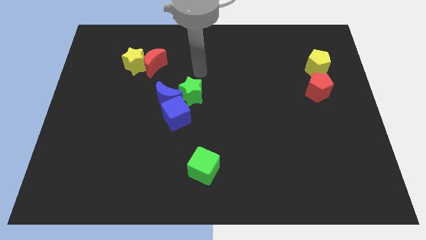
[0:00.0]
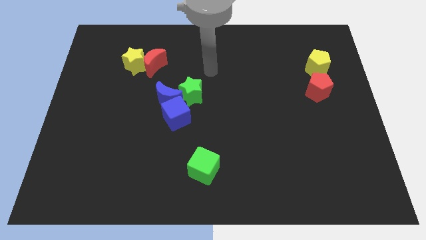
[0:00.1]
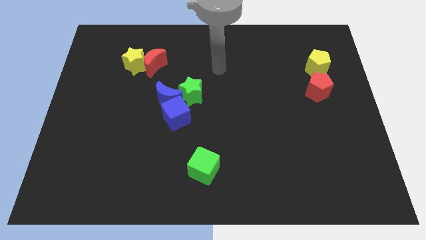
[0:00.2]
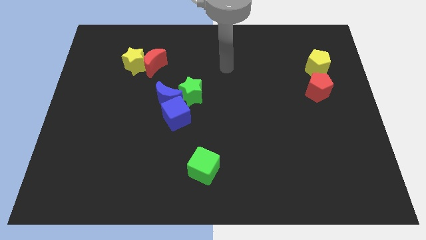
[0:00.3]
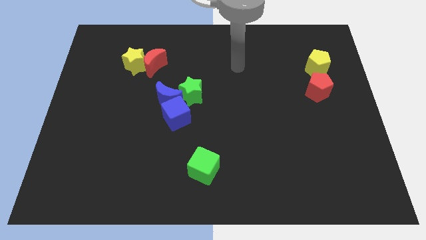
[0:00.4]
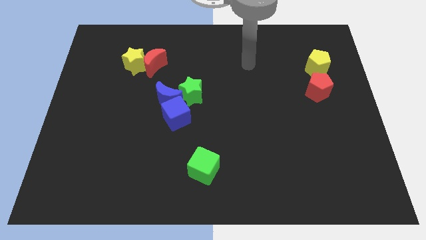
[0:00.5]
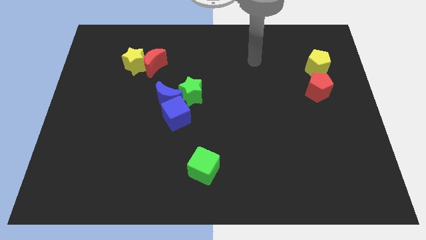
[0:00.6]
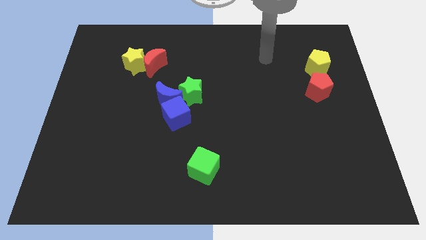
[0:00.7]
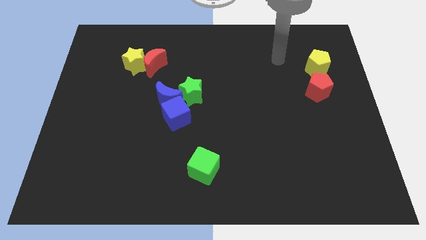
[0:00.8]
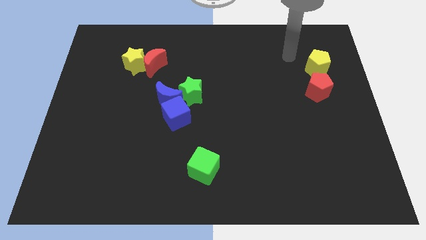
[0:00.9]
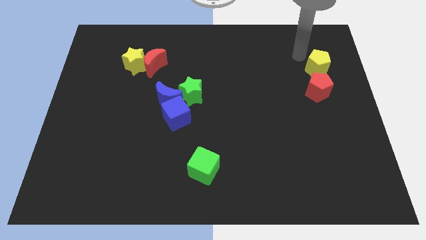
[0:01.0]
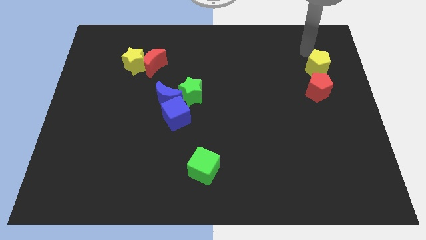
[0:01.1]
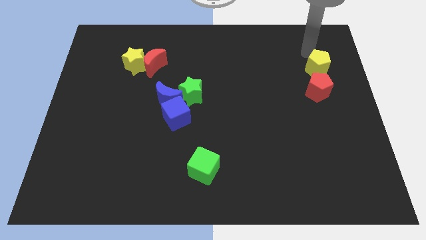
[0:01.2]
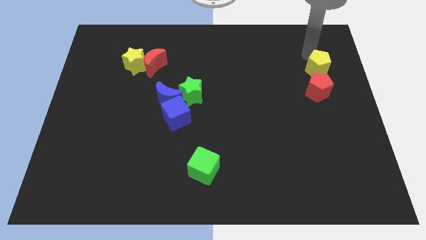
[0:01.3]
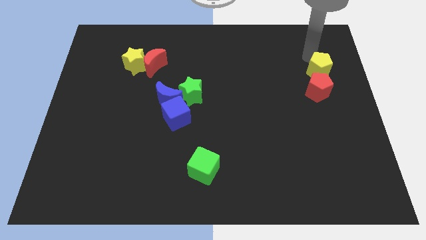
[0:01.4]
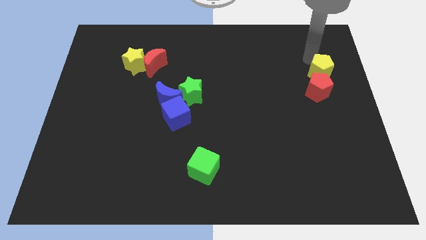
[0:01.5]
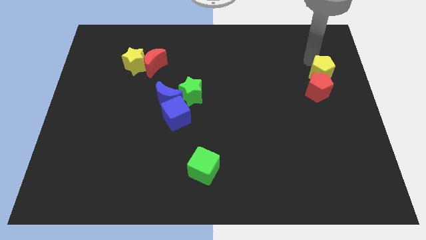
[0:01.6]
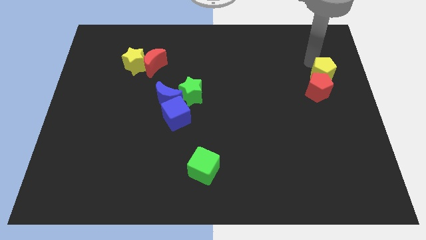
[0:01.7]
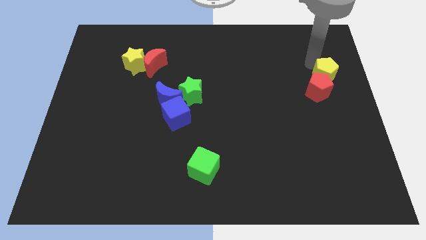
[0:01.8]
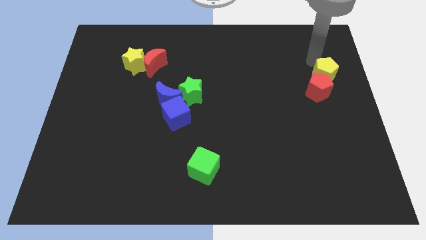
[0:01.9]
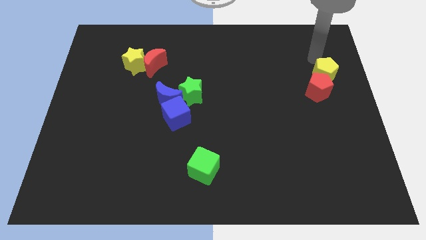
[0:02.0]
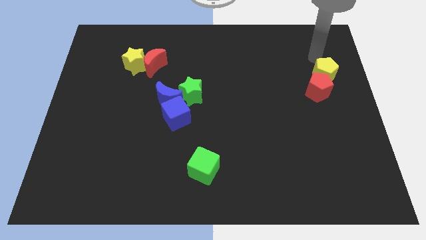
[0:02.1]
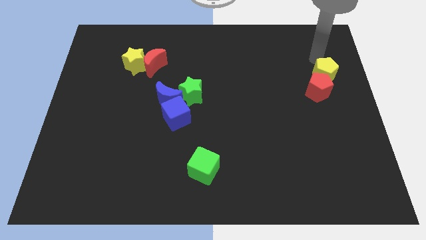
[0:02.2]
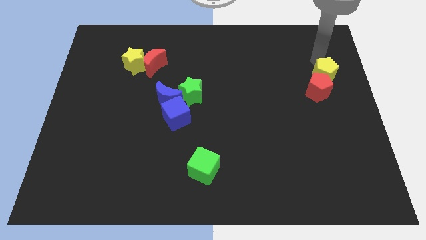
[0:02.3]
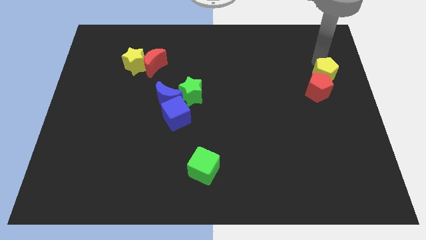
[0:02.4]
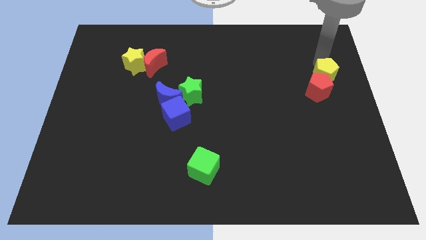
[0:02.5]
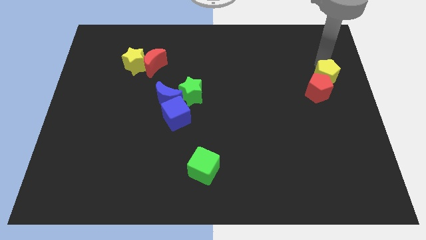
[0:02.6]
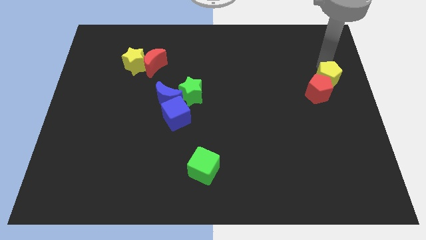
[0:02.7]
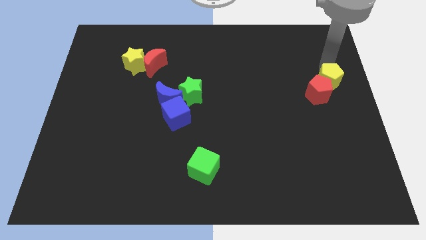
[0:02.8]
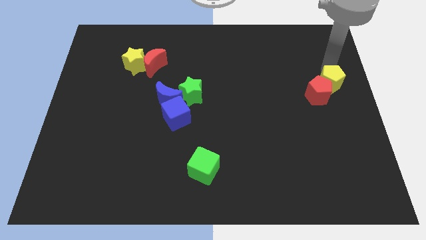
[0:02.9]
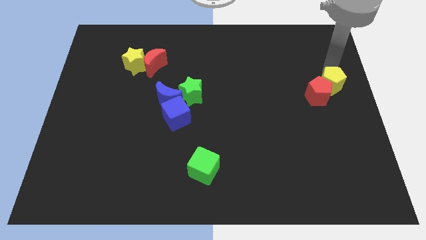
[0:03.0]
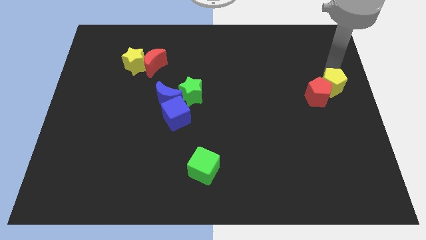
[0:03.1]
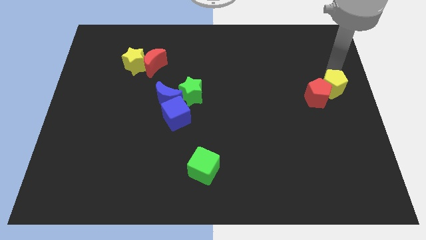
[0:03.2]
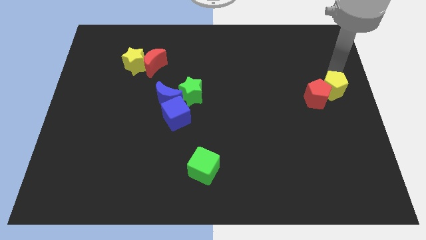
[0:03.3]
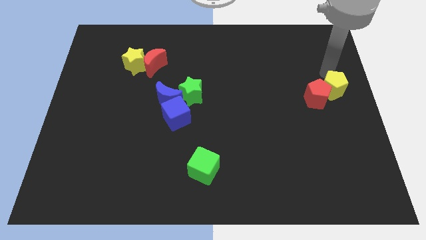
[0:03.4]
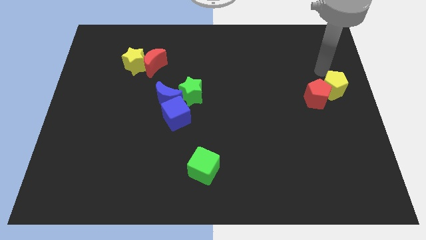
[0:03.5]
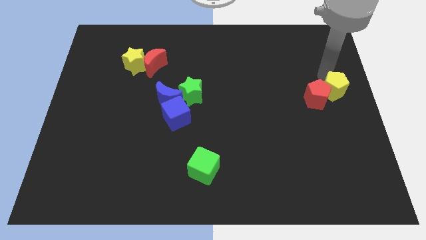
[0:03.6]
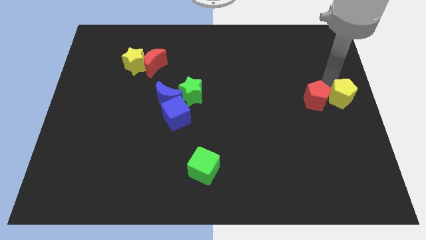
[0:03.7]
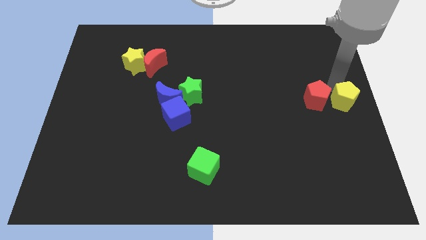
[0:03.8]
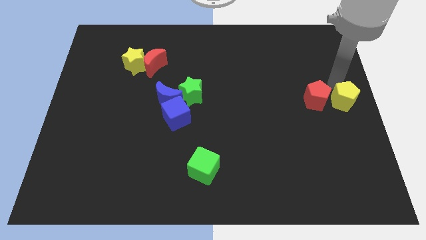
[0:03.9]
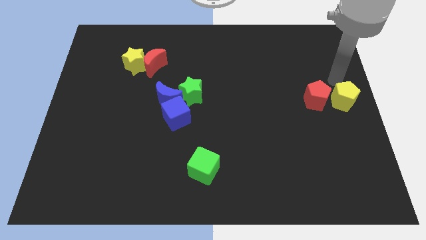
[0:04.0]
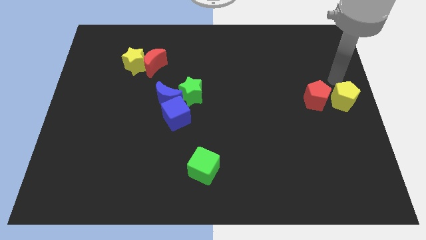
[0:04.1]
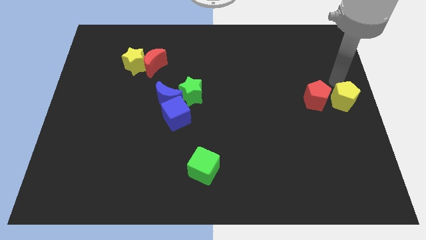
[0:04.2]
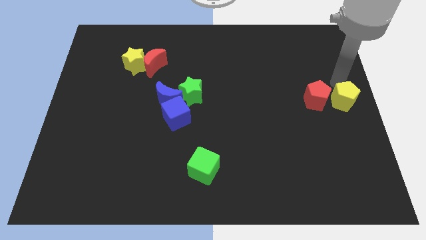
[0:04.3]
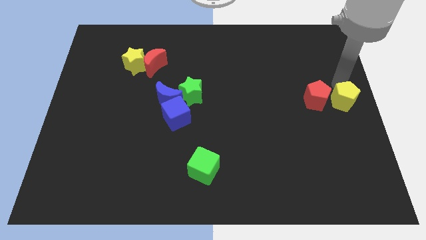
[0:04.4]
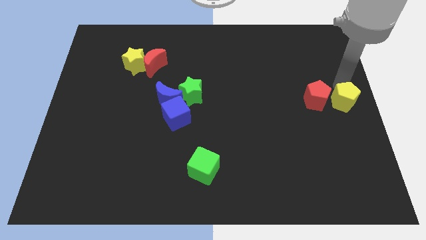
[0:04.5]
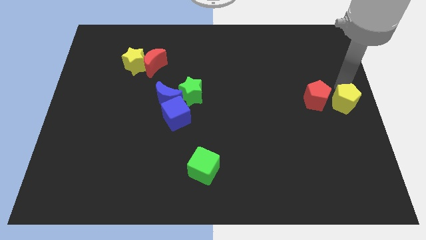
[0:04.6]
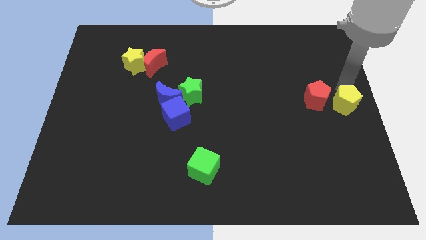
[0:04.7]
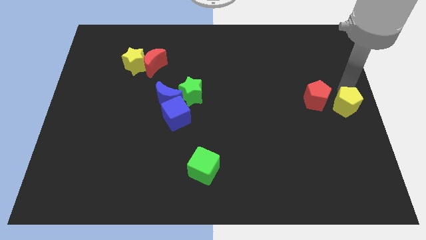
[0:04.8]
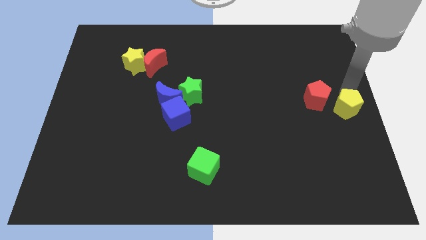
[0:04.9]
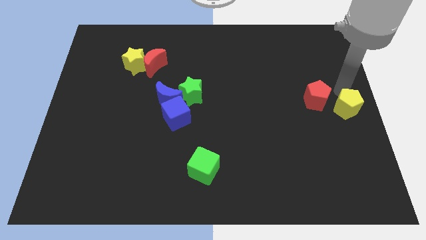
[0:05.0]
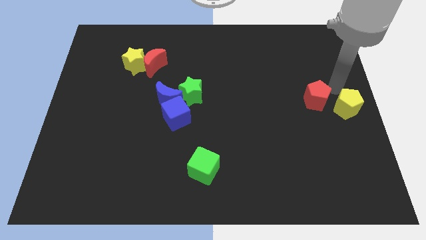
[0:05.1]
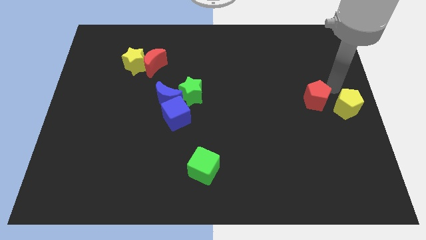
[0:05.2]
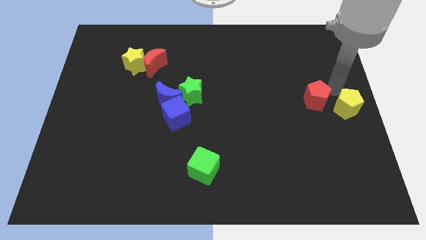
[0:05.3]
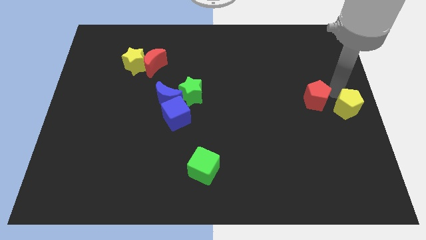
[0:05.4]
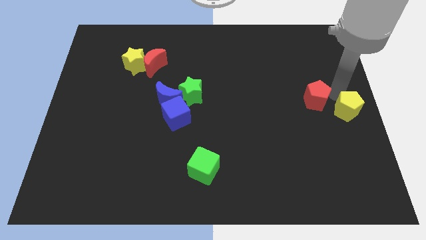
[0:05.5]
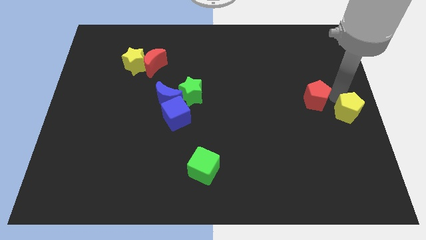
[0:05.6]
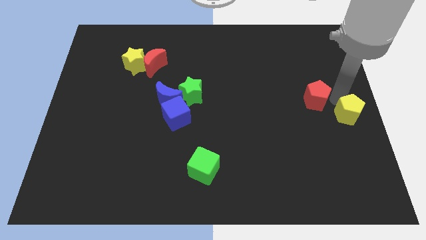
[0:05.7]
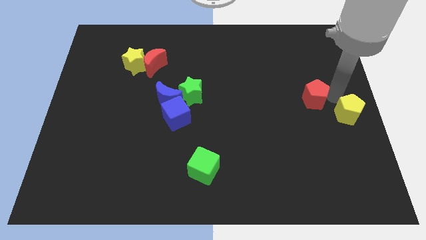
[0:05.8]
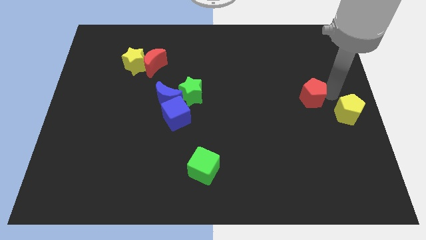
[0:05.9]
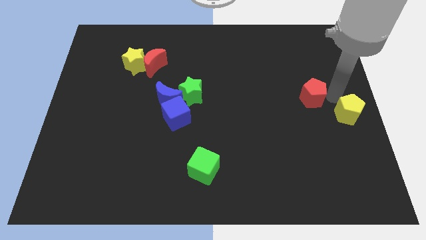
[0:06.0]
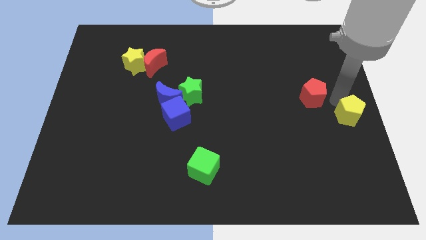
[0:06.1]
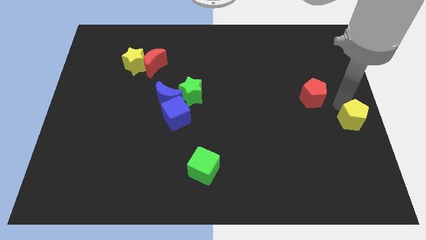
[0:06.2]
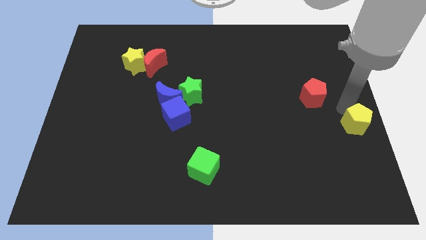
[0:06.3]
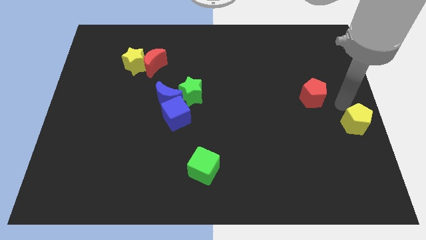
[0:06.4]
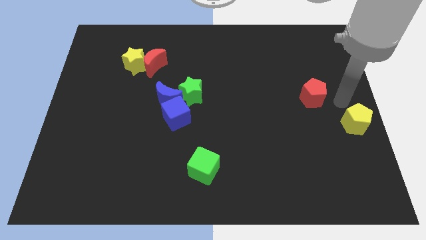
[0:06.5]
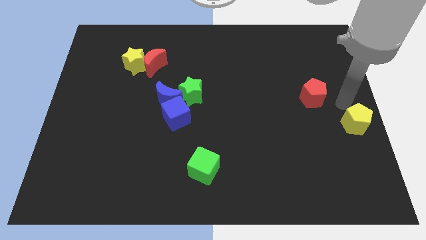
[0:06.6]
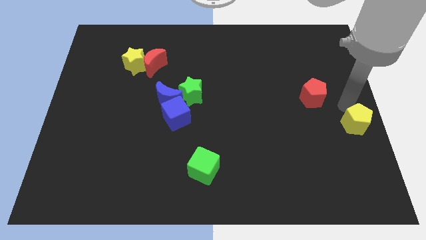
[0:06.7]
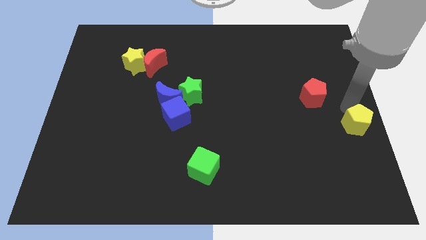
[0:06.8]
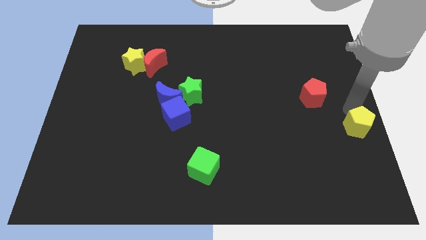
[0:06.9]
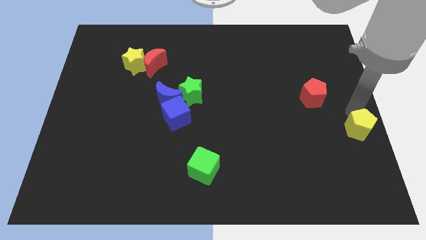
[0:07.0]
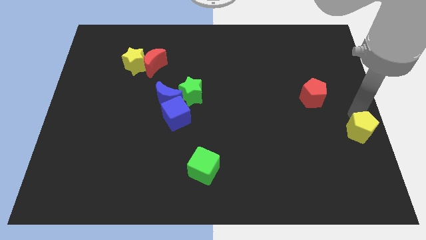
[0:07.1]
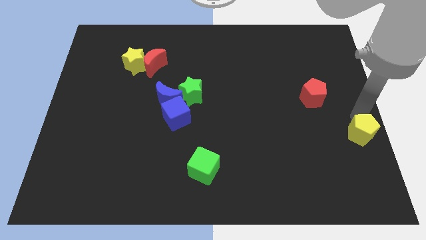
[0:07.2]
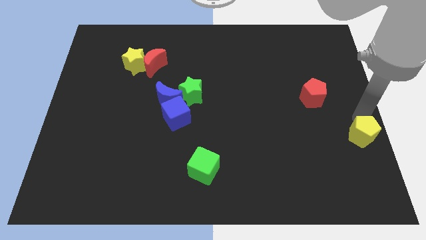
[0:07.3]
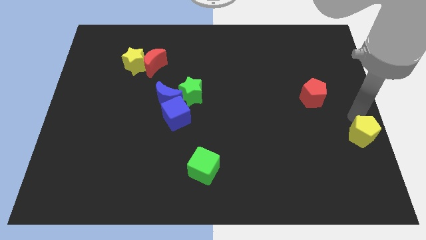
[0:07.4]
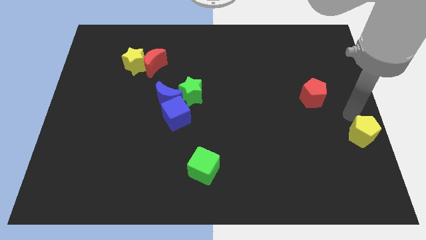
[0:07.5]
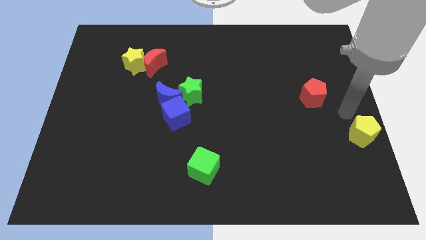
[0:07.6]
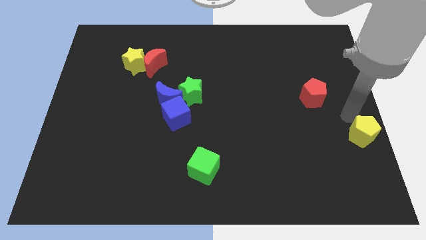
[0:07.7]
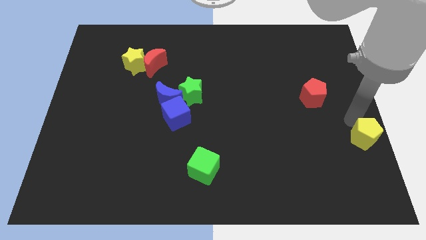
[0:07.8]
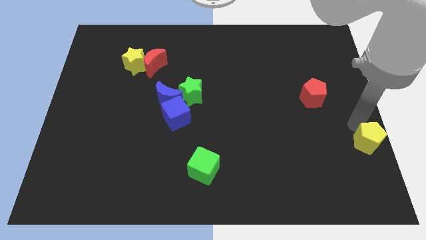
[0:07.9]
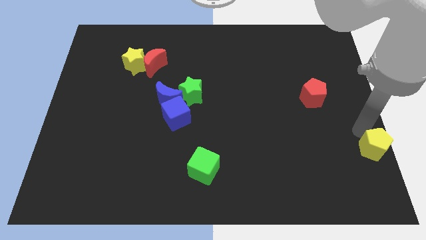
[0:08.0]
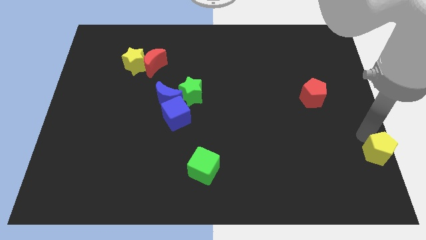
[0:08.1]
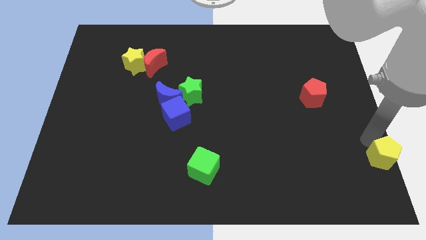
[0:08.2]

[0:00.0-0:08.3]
put the yellow pentagon to the bottom right corner
